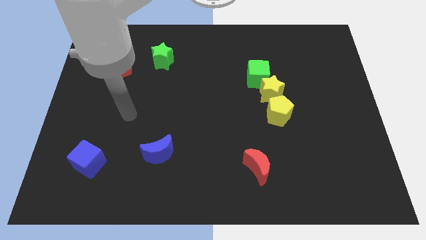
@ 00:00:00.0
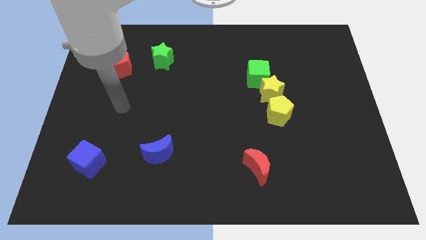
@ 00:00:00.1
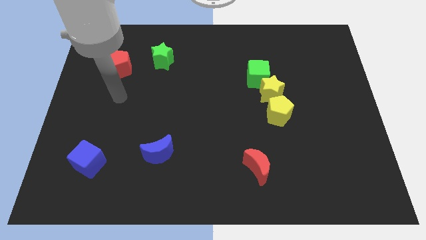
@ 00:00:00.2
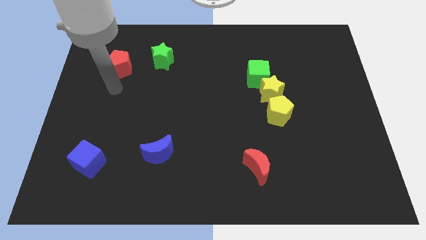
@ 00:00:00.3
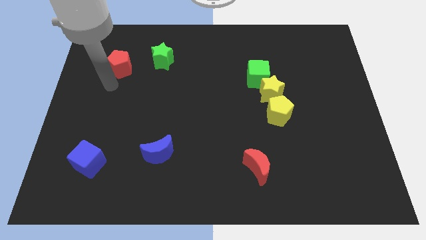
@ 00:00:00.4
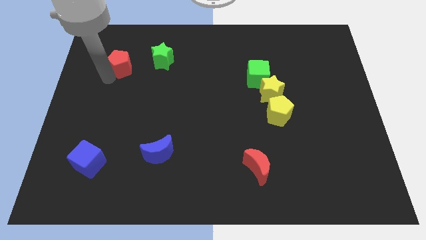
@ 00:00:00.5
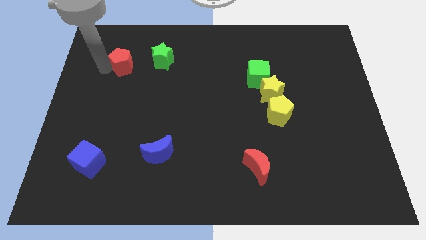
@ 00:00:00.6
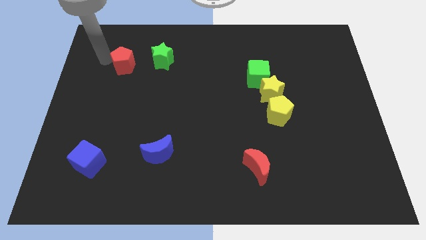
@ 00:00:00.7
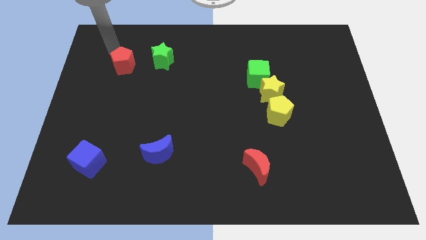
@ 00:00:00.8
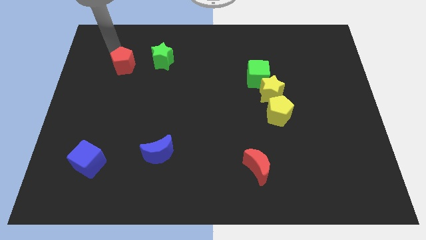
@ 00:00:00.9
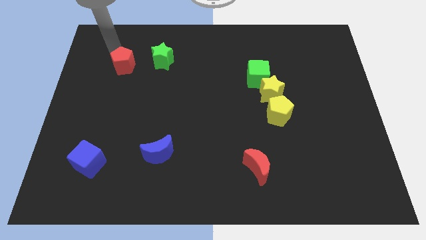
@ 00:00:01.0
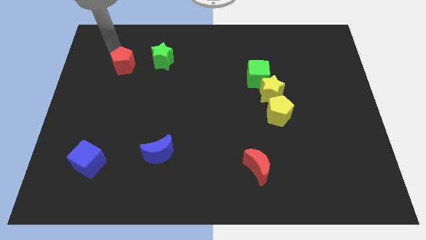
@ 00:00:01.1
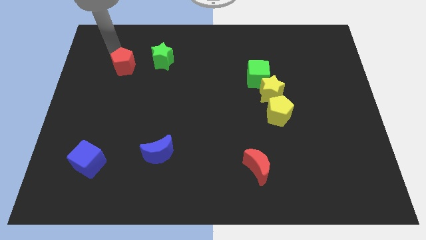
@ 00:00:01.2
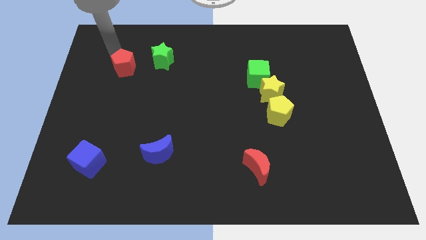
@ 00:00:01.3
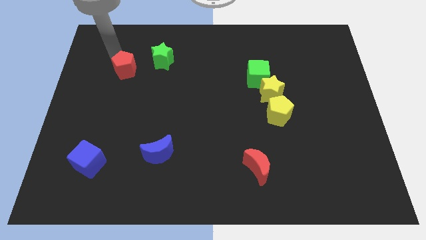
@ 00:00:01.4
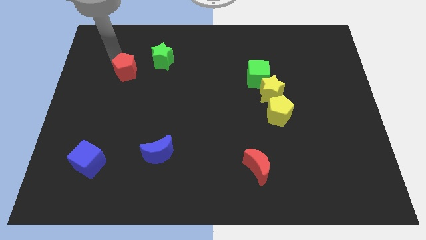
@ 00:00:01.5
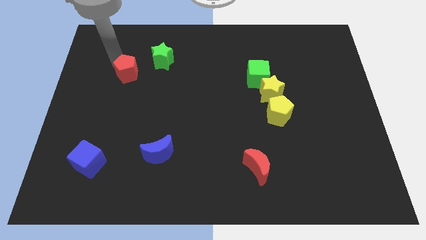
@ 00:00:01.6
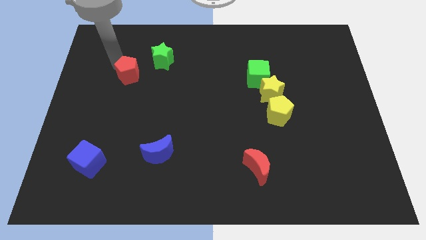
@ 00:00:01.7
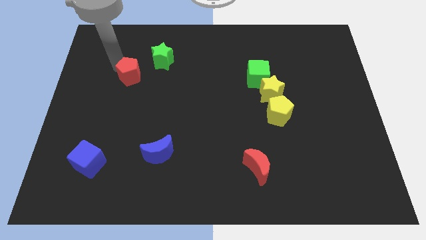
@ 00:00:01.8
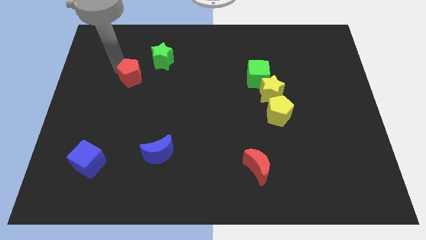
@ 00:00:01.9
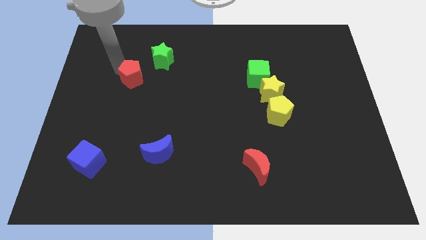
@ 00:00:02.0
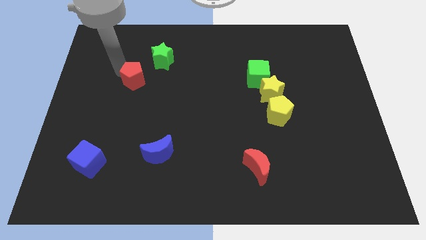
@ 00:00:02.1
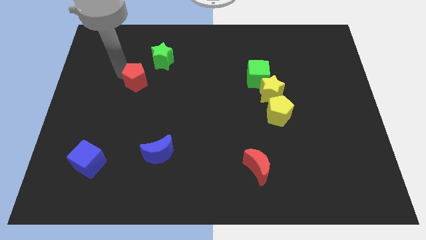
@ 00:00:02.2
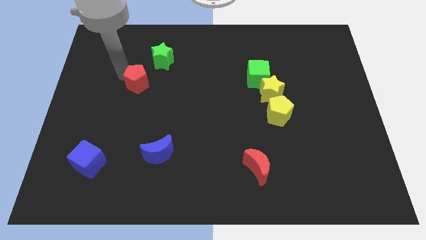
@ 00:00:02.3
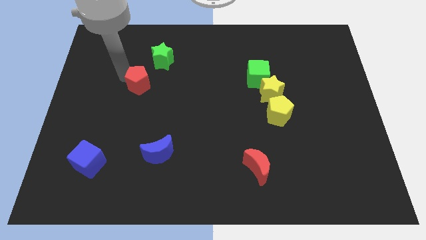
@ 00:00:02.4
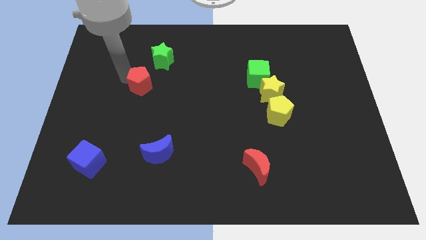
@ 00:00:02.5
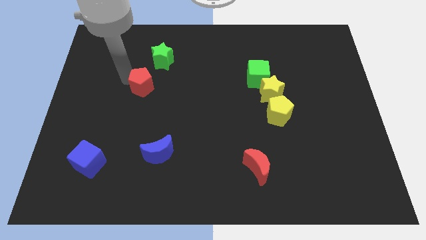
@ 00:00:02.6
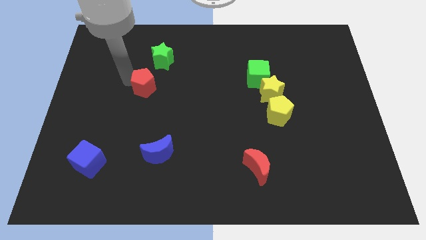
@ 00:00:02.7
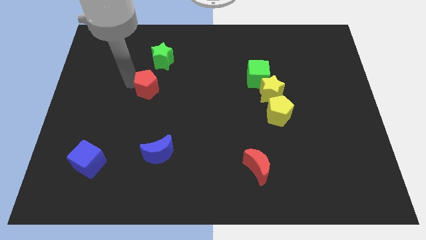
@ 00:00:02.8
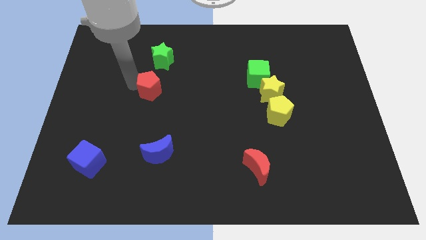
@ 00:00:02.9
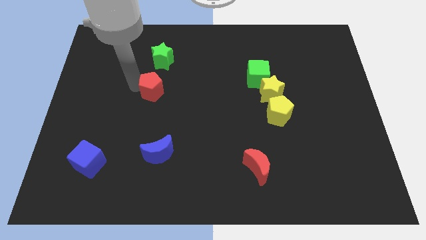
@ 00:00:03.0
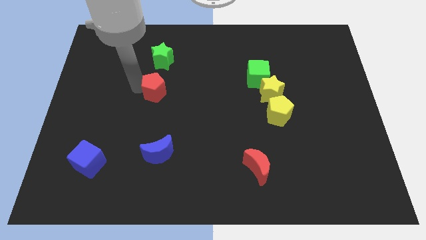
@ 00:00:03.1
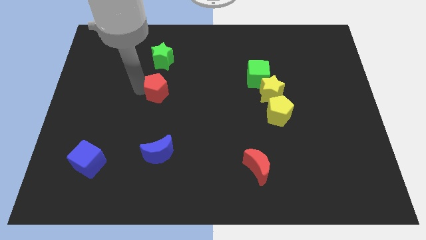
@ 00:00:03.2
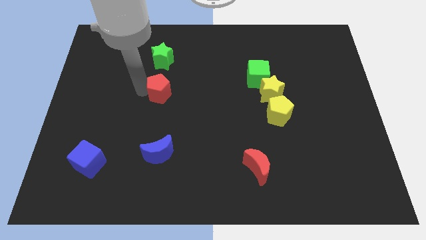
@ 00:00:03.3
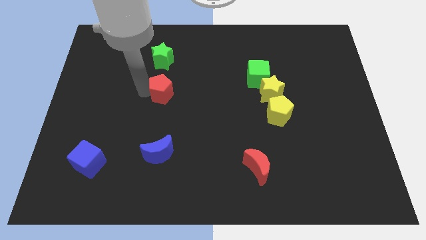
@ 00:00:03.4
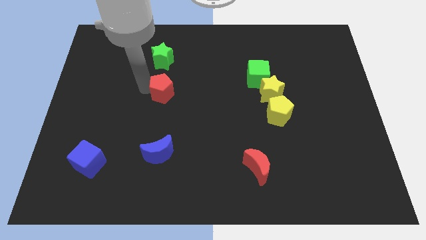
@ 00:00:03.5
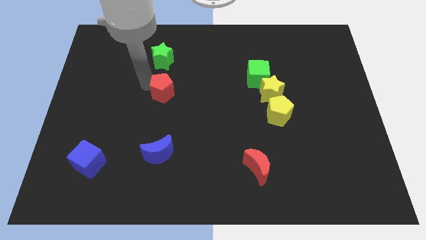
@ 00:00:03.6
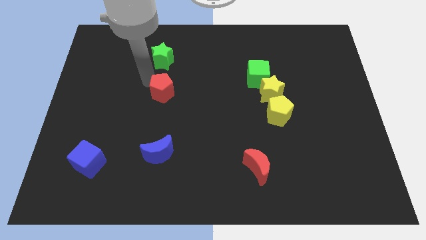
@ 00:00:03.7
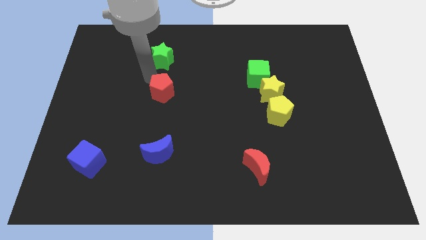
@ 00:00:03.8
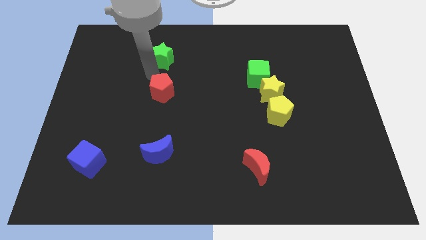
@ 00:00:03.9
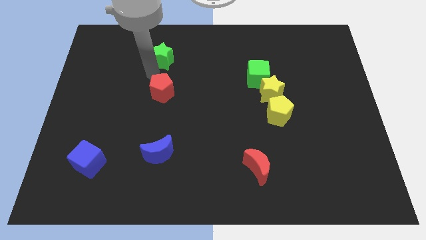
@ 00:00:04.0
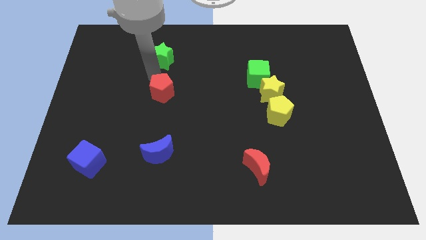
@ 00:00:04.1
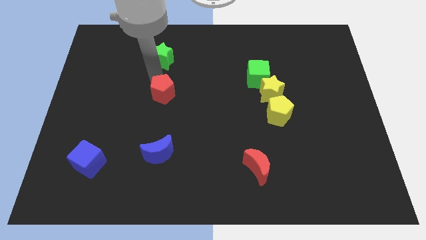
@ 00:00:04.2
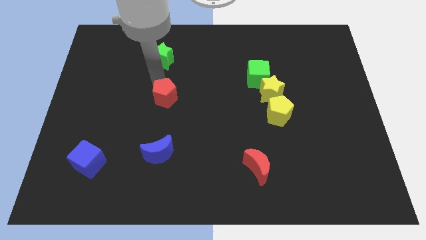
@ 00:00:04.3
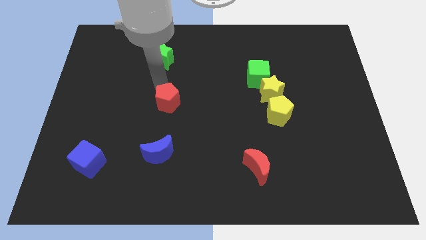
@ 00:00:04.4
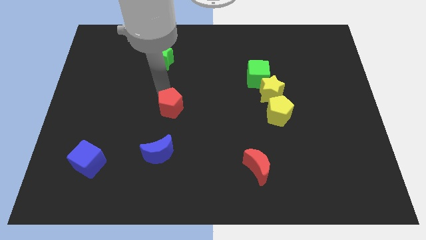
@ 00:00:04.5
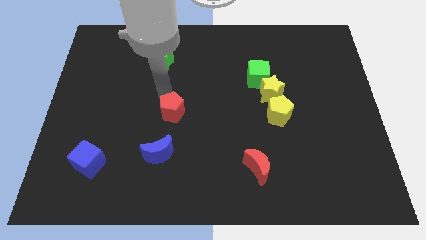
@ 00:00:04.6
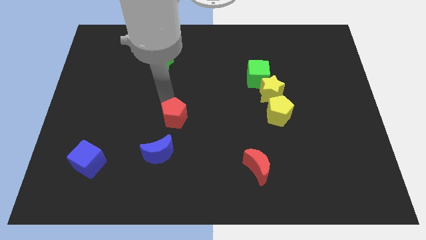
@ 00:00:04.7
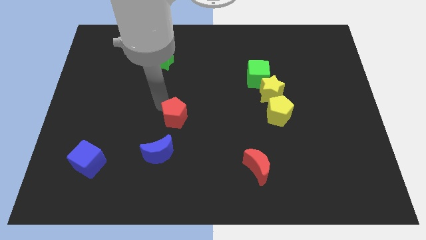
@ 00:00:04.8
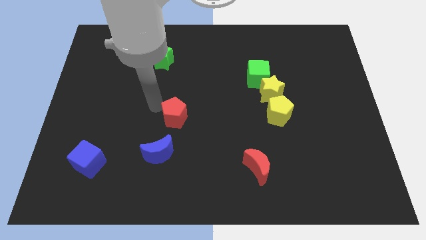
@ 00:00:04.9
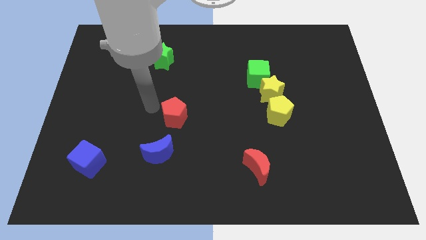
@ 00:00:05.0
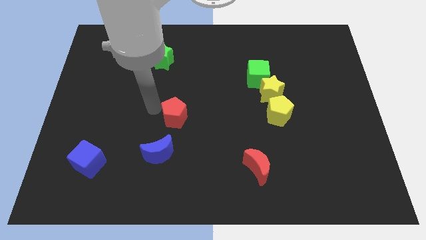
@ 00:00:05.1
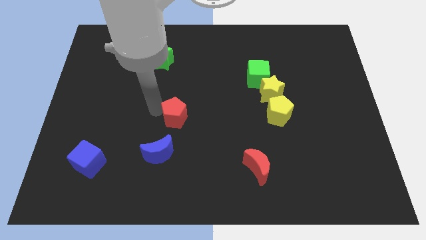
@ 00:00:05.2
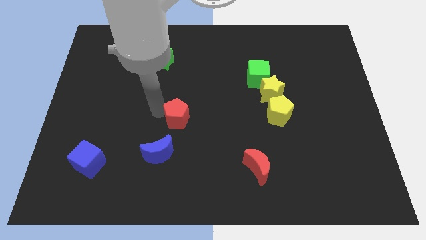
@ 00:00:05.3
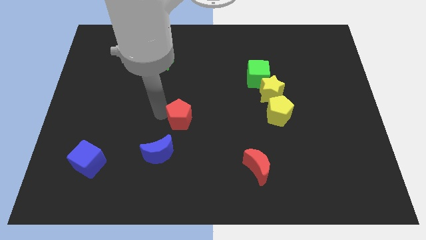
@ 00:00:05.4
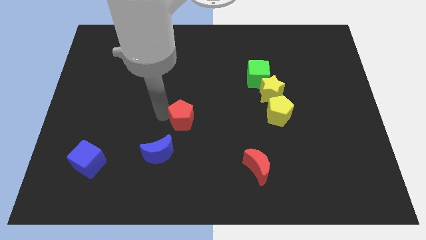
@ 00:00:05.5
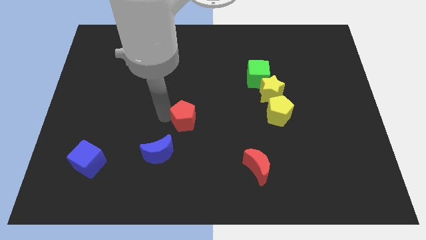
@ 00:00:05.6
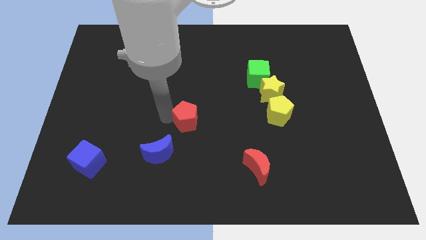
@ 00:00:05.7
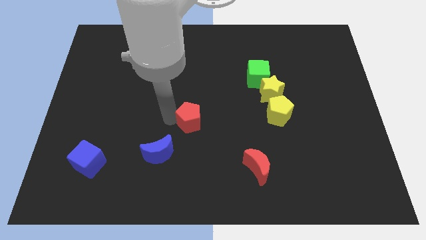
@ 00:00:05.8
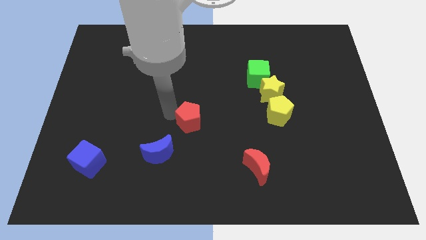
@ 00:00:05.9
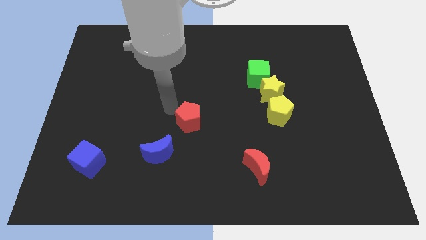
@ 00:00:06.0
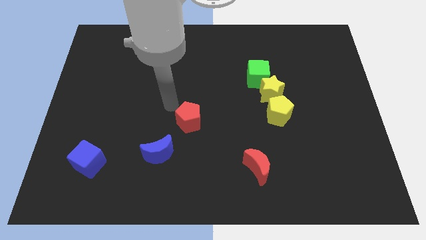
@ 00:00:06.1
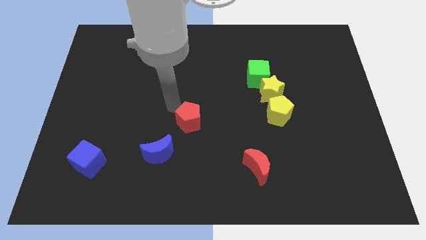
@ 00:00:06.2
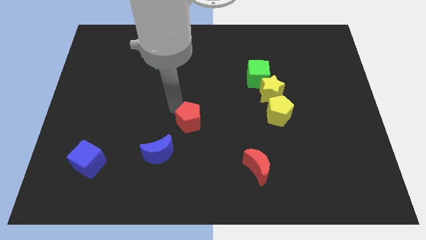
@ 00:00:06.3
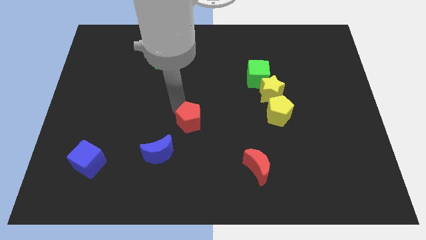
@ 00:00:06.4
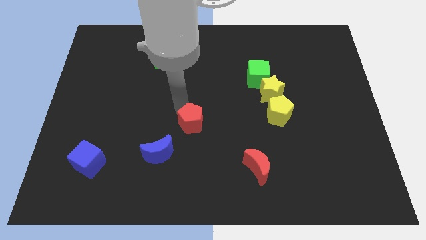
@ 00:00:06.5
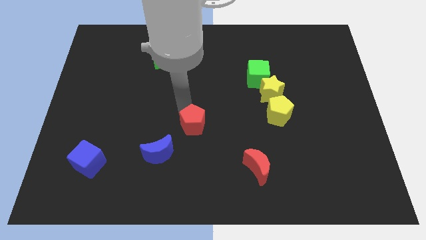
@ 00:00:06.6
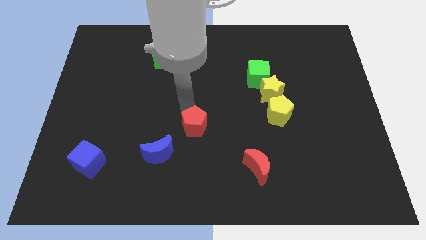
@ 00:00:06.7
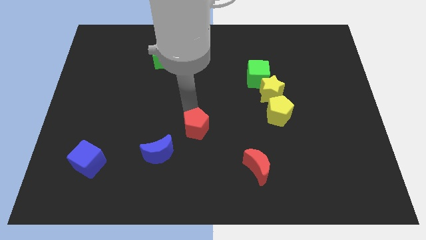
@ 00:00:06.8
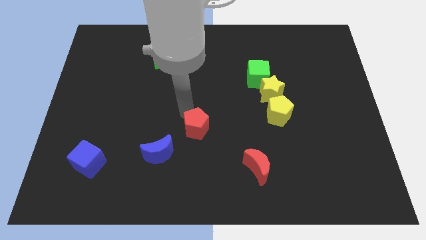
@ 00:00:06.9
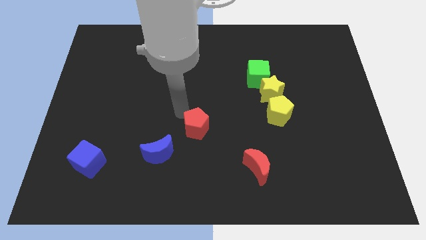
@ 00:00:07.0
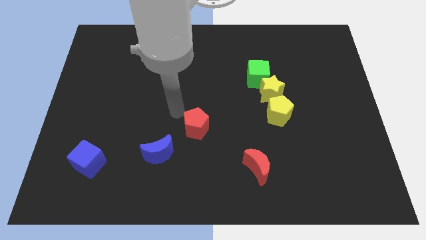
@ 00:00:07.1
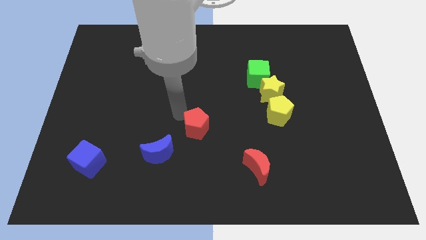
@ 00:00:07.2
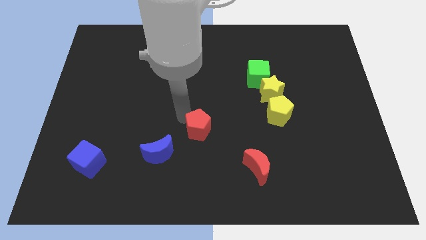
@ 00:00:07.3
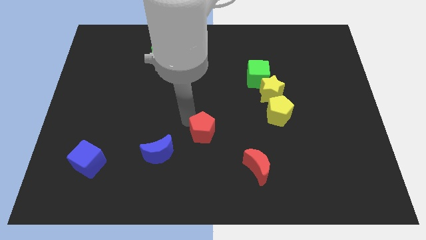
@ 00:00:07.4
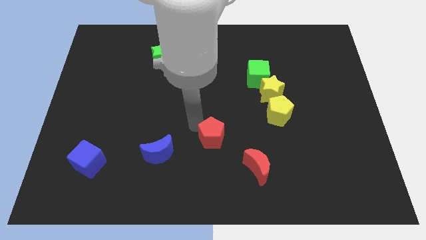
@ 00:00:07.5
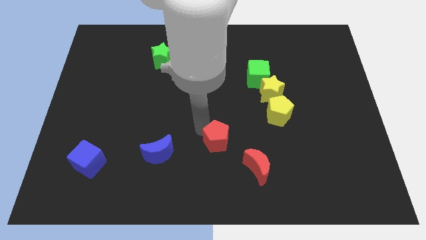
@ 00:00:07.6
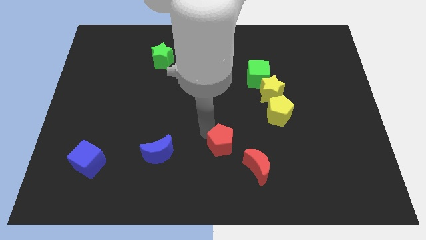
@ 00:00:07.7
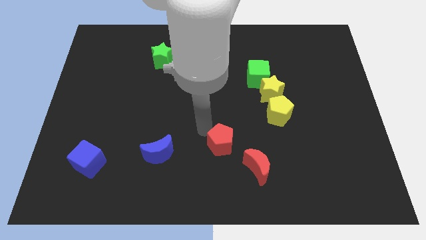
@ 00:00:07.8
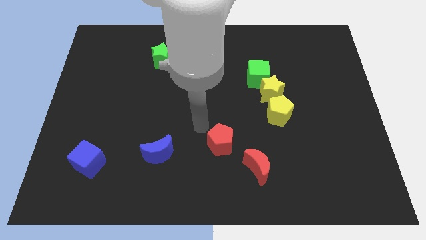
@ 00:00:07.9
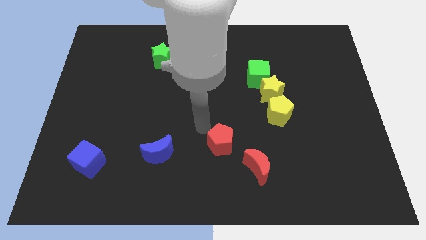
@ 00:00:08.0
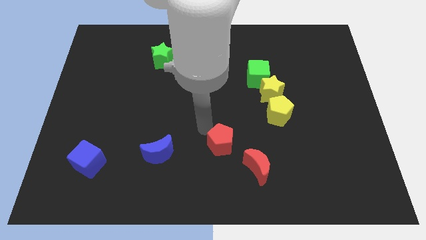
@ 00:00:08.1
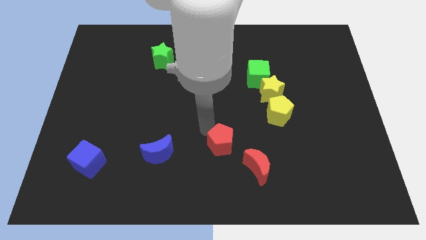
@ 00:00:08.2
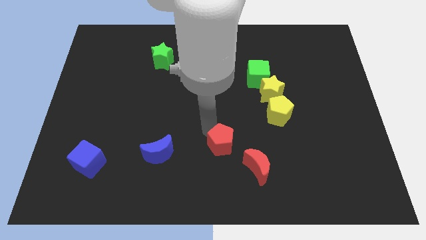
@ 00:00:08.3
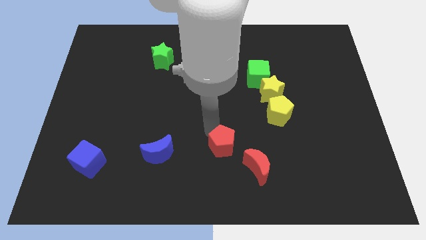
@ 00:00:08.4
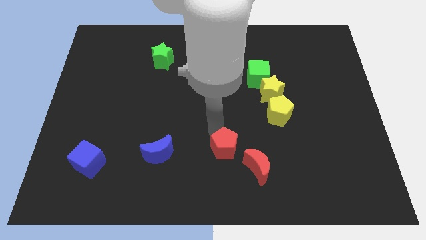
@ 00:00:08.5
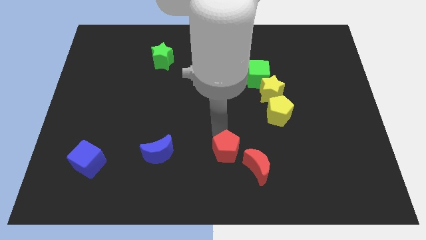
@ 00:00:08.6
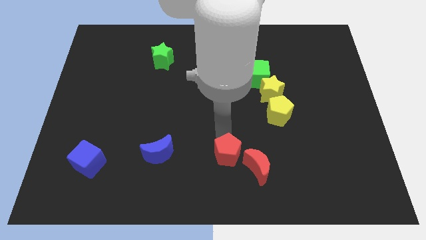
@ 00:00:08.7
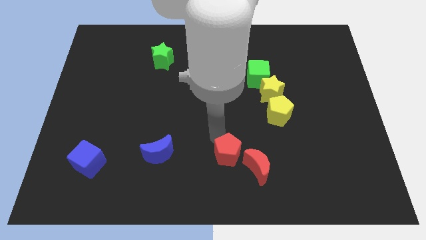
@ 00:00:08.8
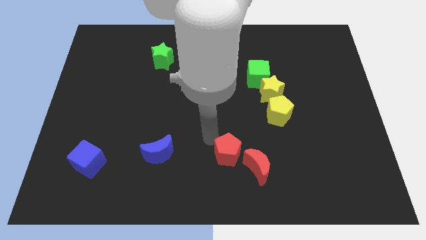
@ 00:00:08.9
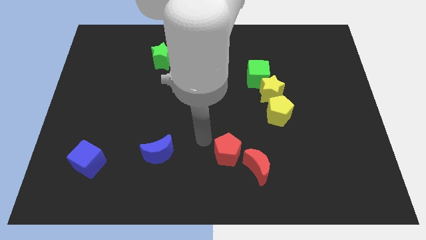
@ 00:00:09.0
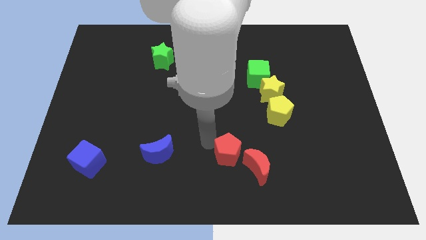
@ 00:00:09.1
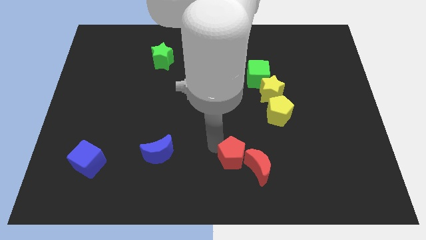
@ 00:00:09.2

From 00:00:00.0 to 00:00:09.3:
put the red pentagon towards the red moon
